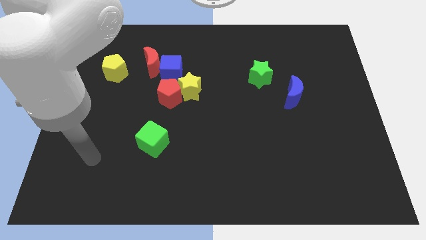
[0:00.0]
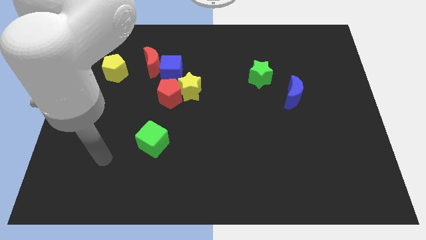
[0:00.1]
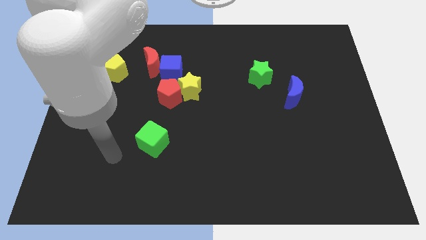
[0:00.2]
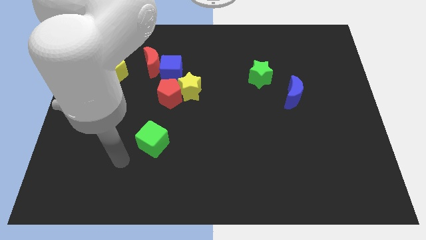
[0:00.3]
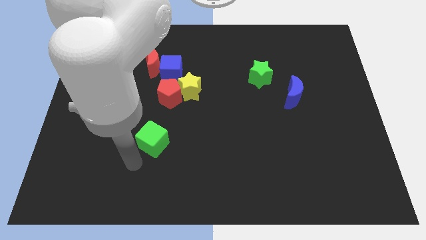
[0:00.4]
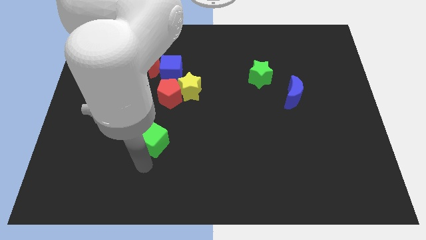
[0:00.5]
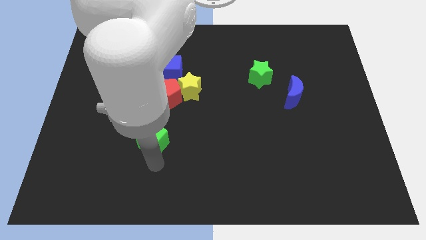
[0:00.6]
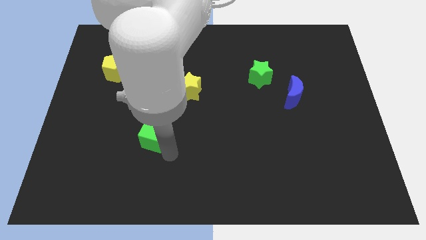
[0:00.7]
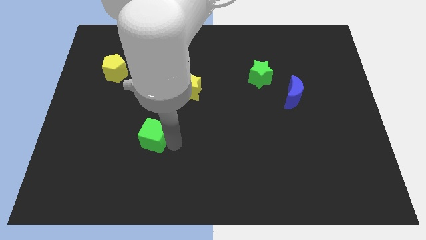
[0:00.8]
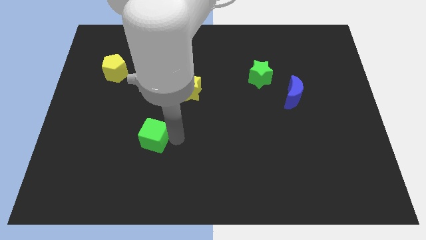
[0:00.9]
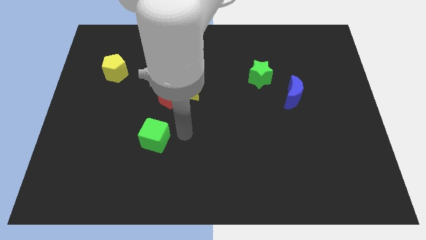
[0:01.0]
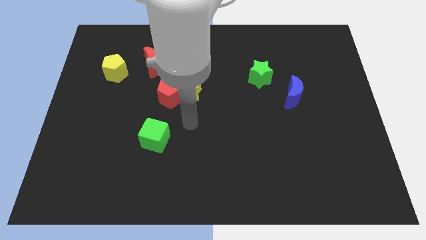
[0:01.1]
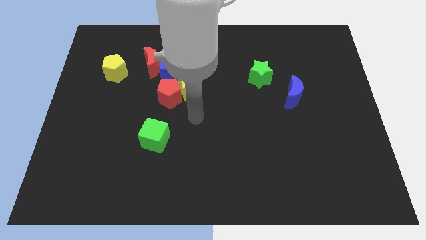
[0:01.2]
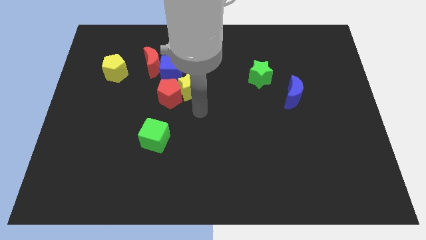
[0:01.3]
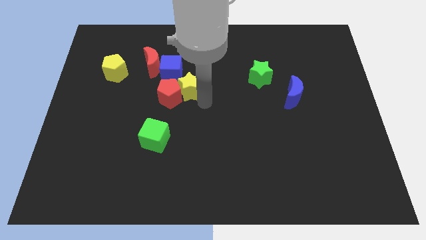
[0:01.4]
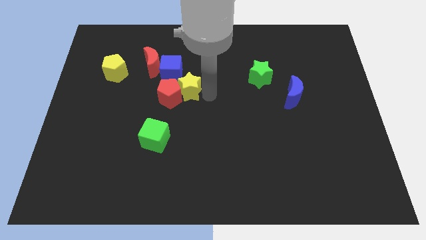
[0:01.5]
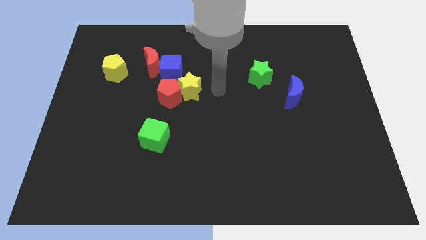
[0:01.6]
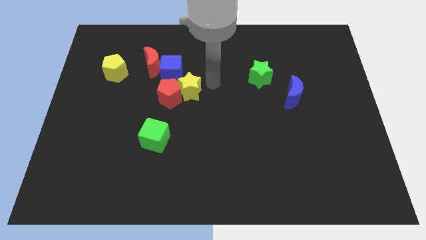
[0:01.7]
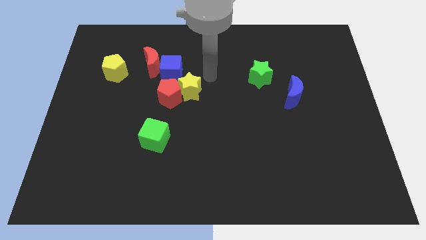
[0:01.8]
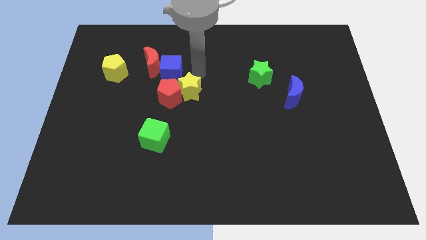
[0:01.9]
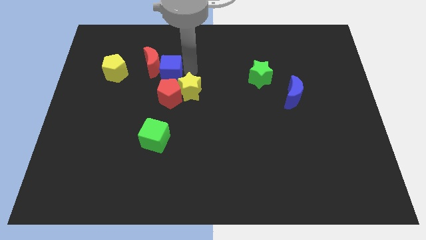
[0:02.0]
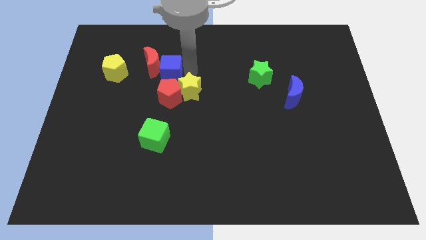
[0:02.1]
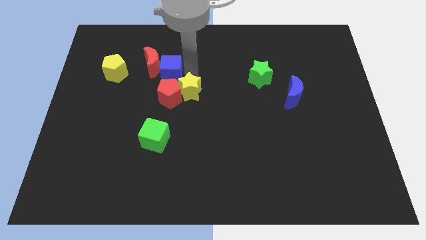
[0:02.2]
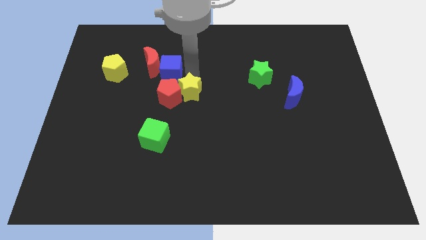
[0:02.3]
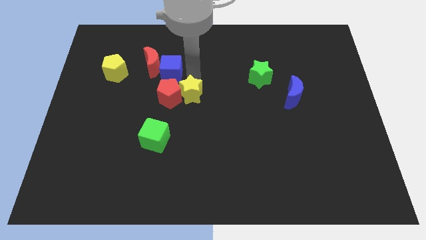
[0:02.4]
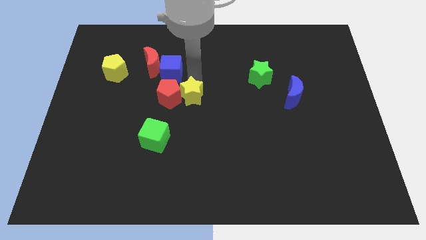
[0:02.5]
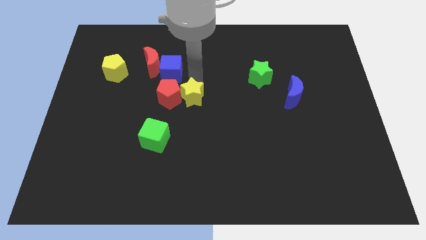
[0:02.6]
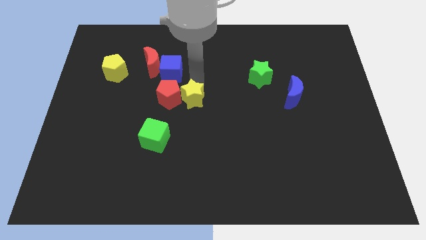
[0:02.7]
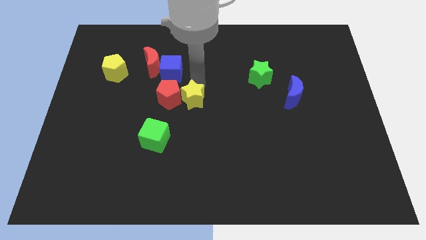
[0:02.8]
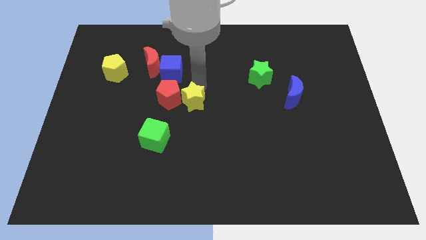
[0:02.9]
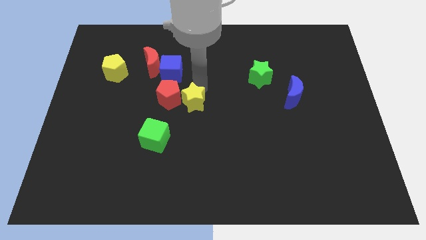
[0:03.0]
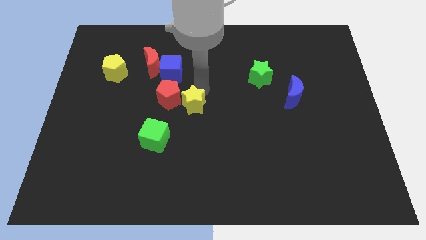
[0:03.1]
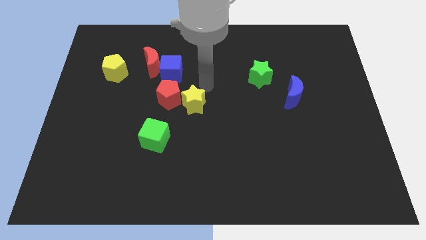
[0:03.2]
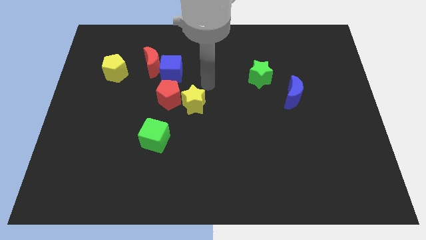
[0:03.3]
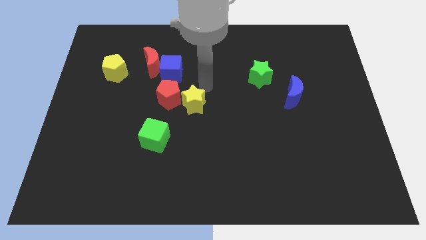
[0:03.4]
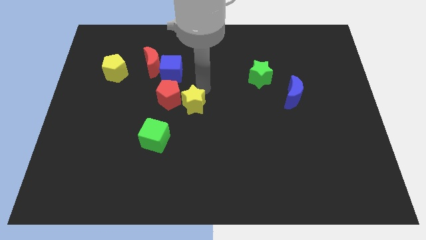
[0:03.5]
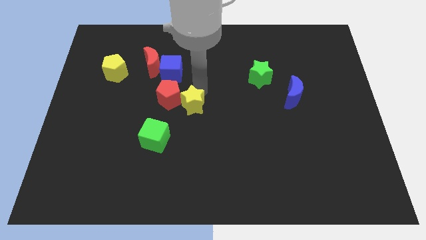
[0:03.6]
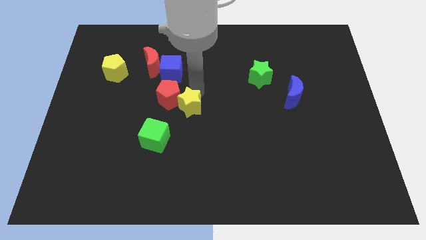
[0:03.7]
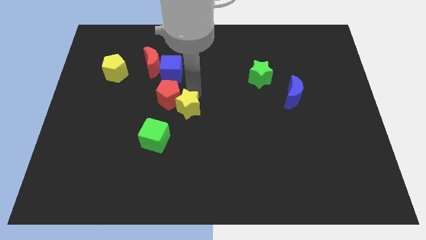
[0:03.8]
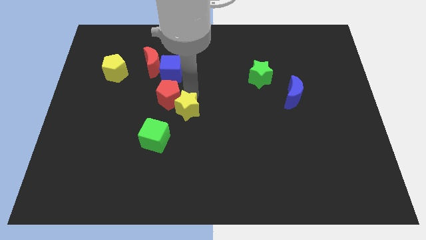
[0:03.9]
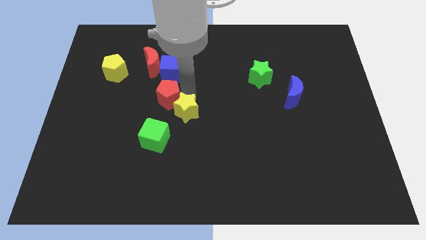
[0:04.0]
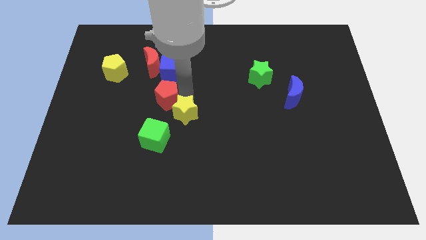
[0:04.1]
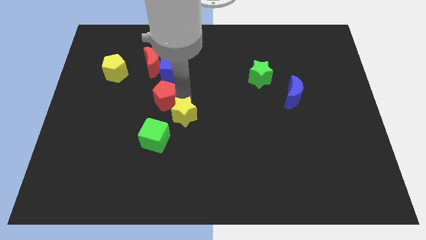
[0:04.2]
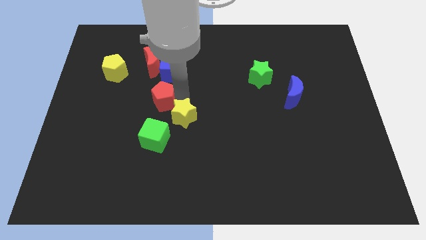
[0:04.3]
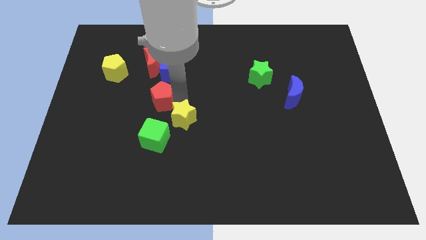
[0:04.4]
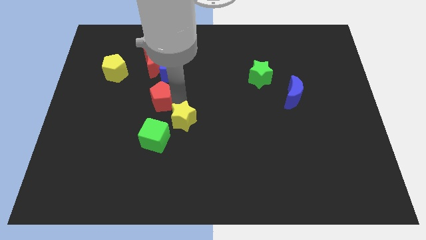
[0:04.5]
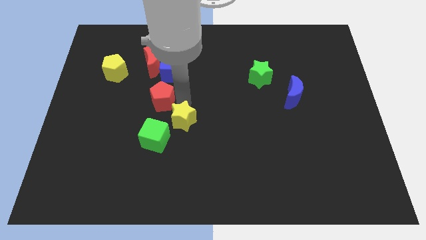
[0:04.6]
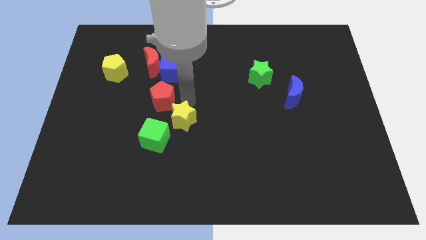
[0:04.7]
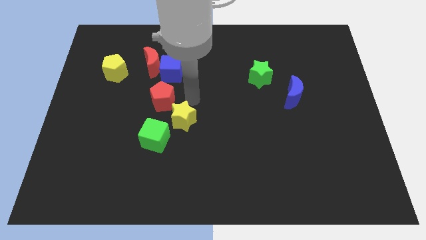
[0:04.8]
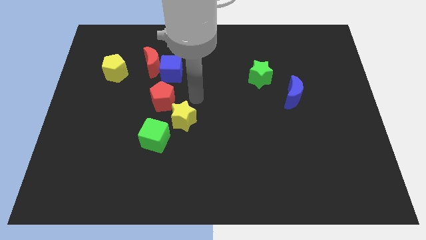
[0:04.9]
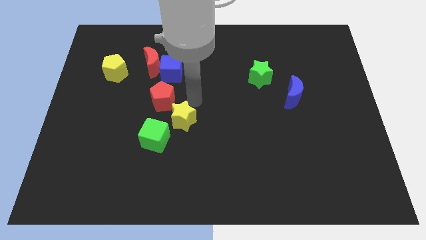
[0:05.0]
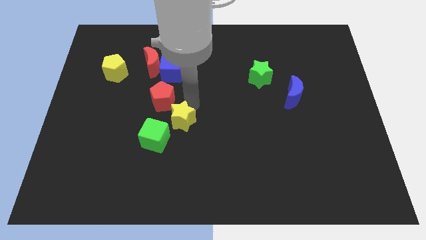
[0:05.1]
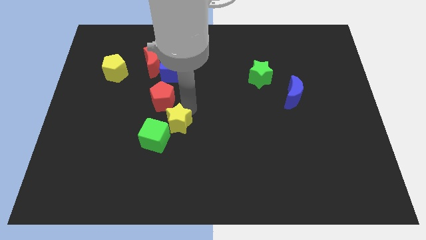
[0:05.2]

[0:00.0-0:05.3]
slide the yellow star down and to the left slightly

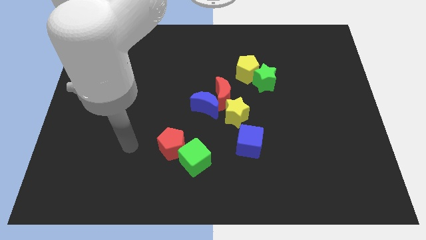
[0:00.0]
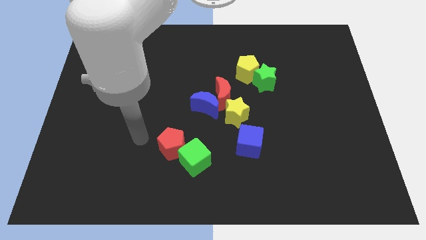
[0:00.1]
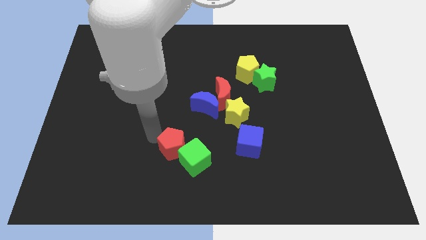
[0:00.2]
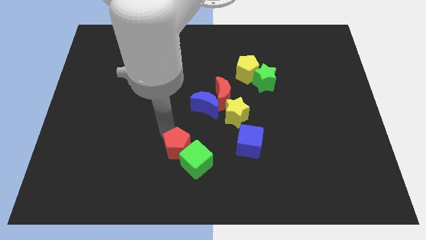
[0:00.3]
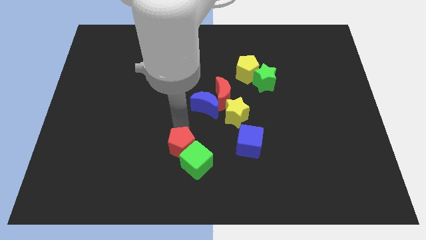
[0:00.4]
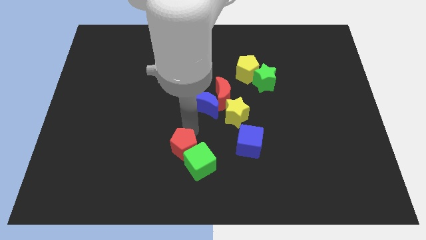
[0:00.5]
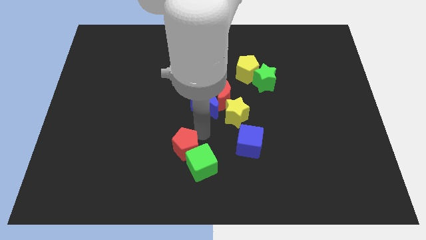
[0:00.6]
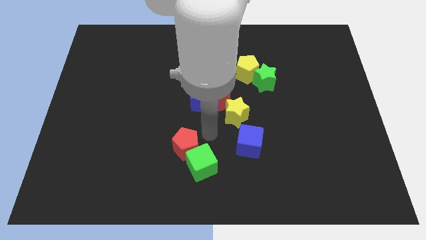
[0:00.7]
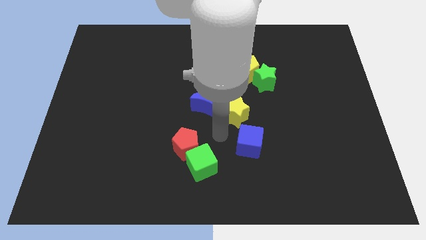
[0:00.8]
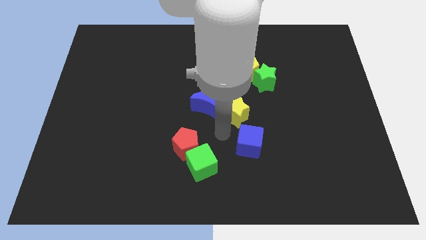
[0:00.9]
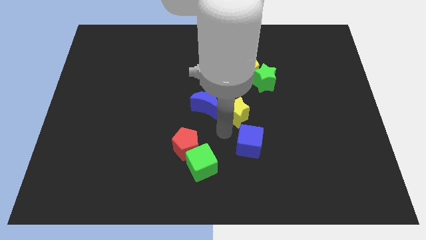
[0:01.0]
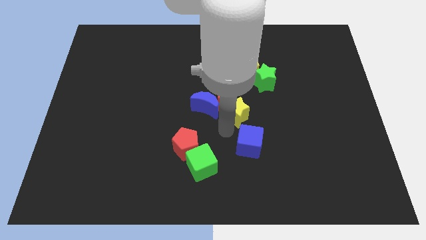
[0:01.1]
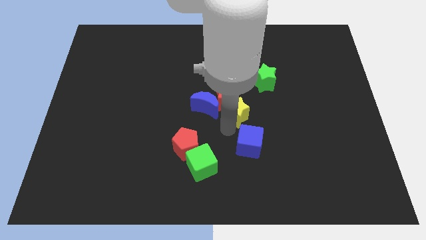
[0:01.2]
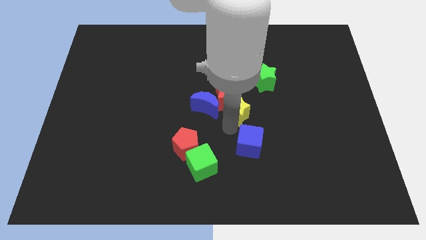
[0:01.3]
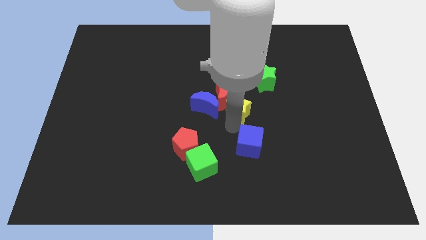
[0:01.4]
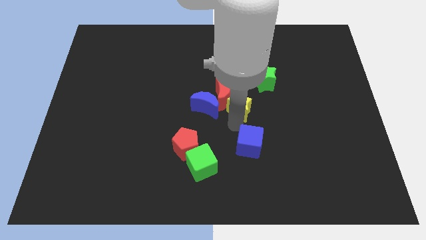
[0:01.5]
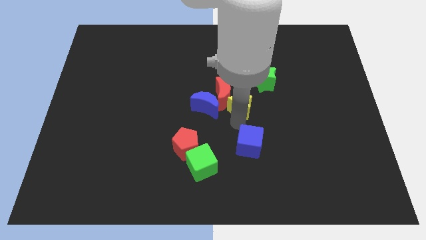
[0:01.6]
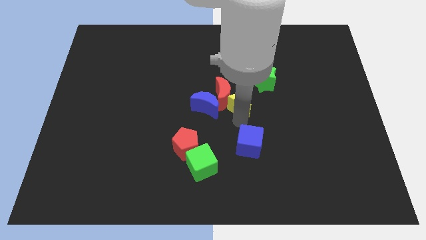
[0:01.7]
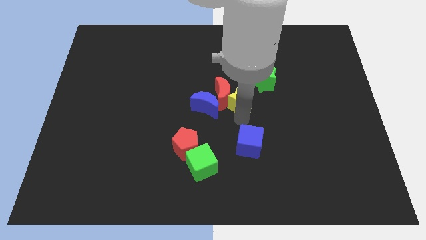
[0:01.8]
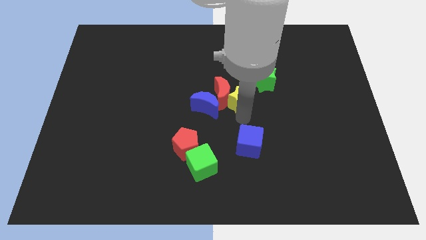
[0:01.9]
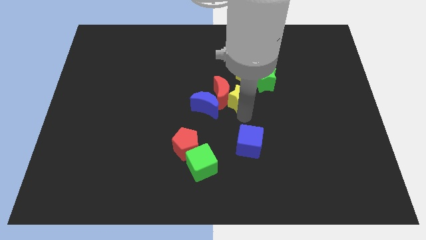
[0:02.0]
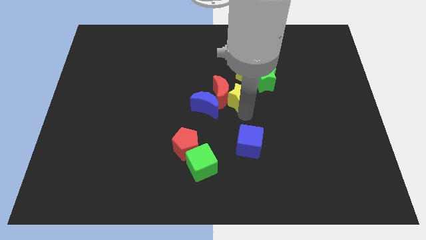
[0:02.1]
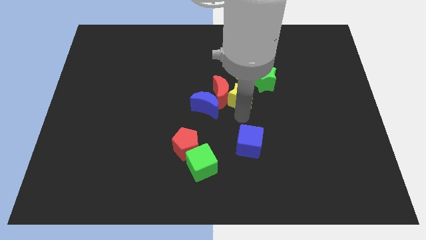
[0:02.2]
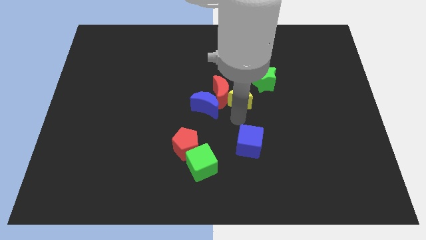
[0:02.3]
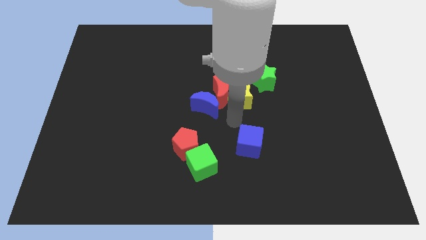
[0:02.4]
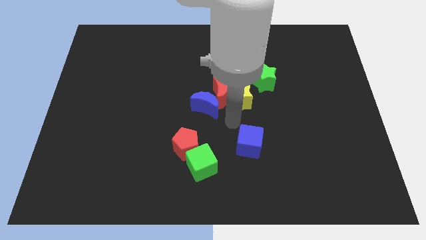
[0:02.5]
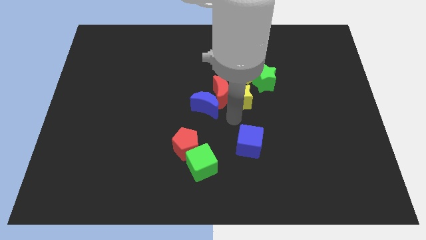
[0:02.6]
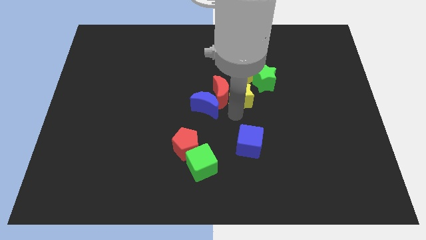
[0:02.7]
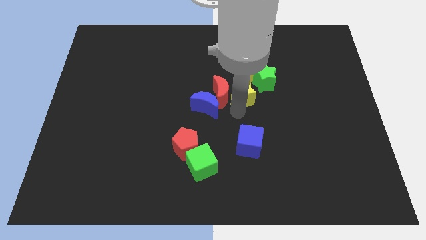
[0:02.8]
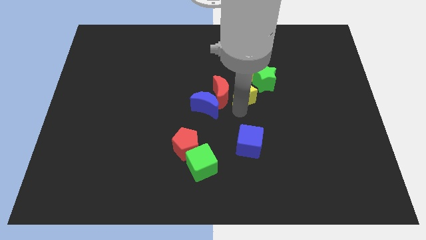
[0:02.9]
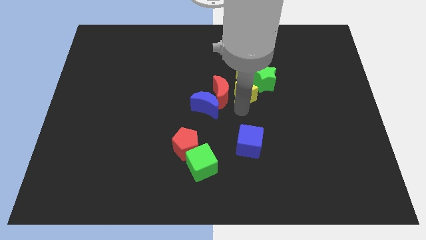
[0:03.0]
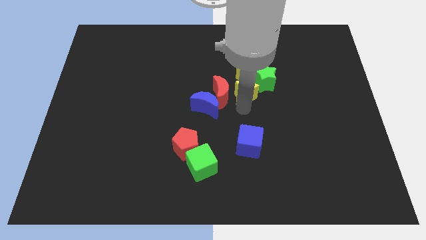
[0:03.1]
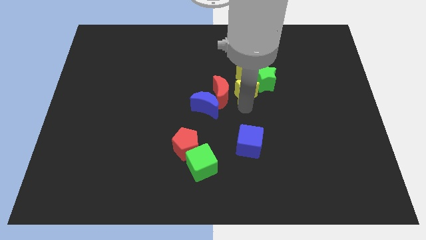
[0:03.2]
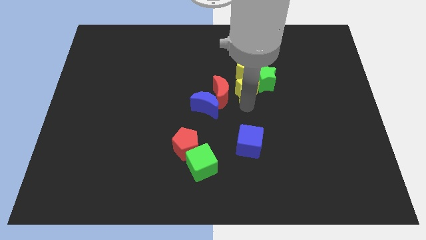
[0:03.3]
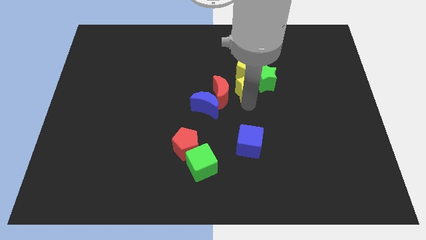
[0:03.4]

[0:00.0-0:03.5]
slightly move the yellow star upwards
